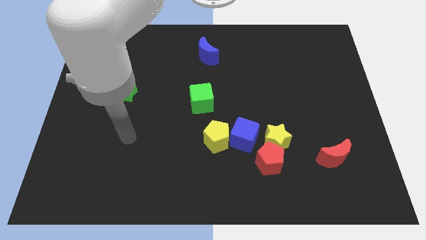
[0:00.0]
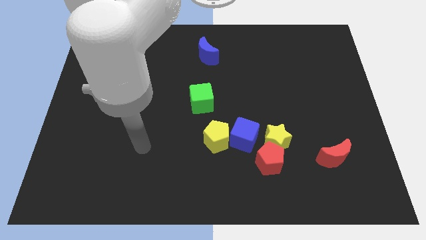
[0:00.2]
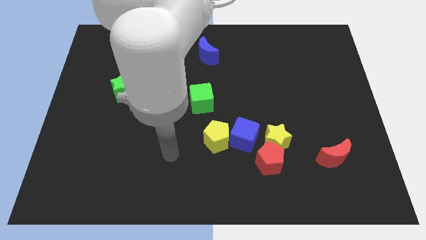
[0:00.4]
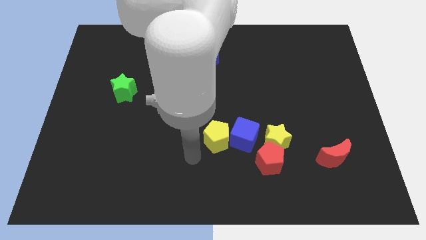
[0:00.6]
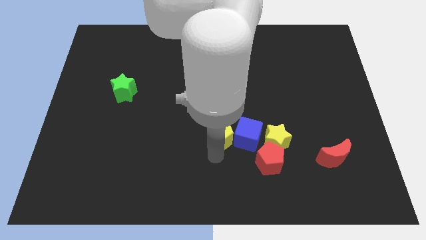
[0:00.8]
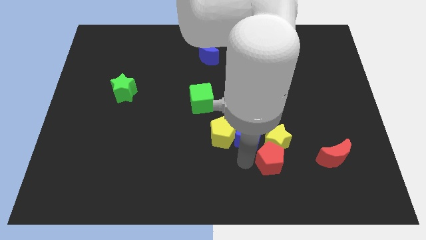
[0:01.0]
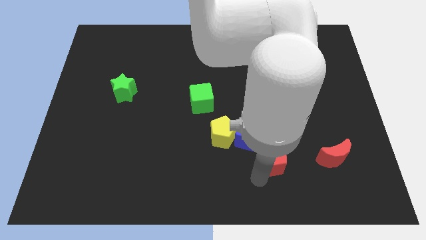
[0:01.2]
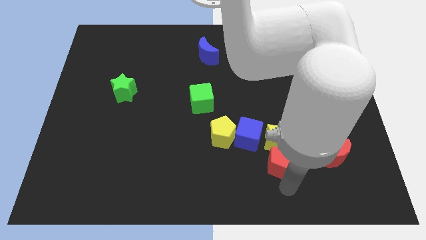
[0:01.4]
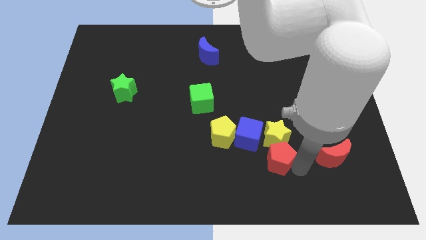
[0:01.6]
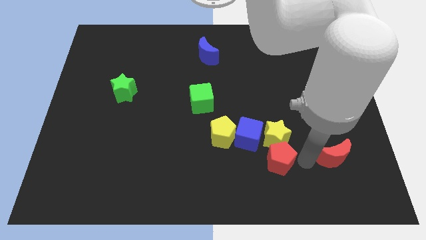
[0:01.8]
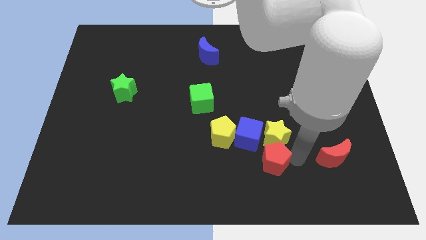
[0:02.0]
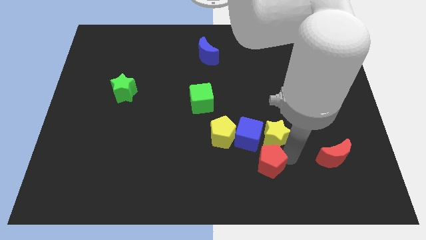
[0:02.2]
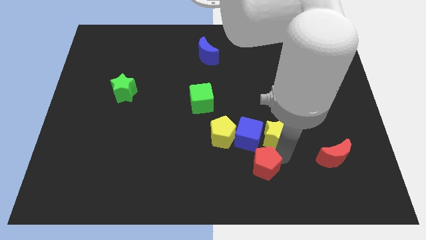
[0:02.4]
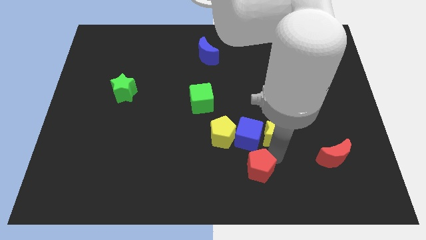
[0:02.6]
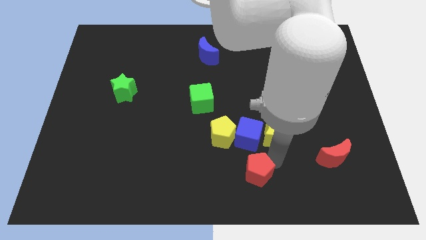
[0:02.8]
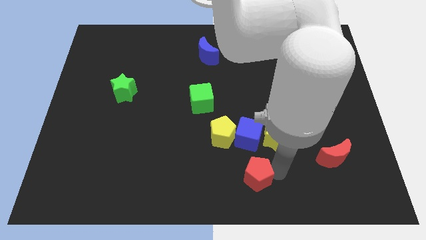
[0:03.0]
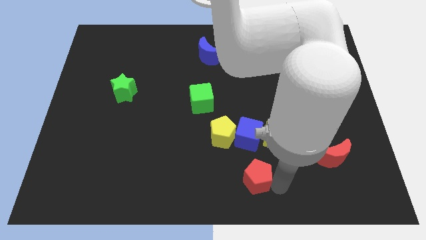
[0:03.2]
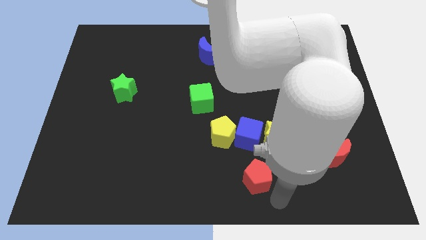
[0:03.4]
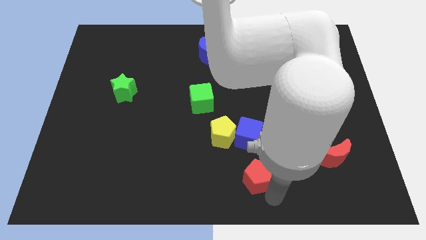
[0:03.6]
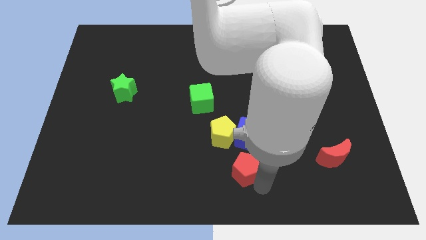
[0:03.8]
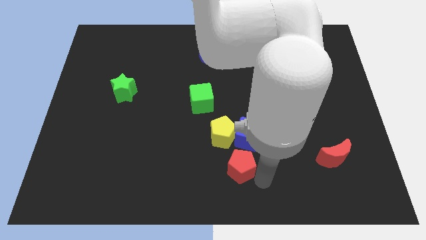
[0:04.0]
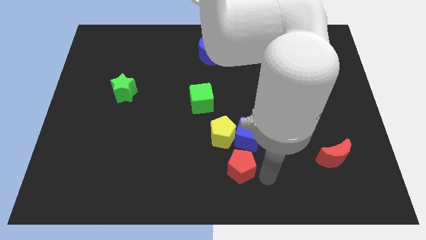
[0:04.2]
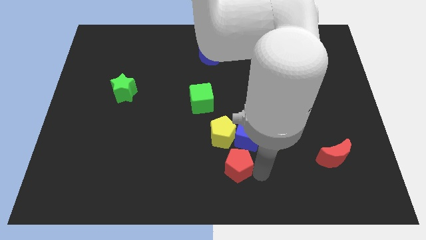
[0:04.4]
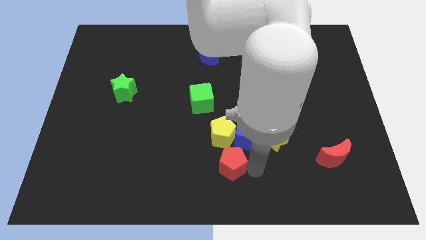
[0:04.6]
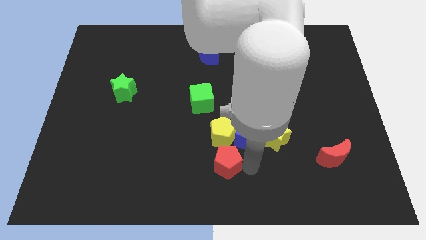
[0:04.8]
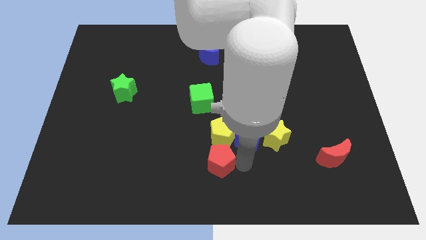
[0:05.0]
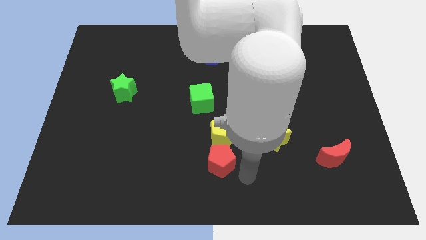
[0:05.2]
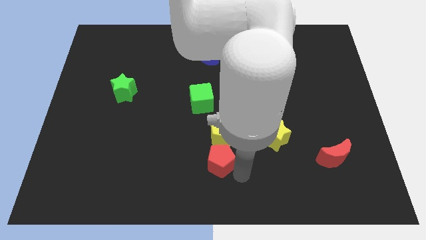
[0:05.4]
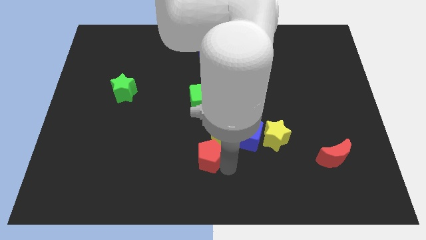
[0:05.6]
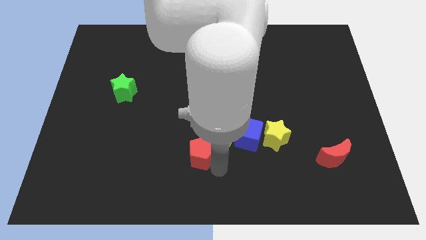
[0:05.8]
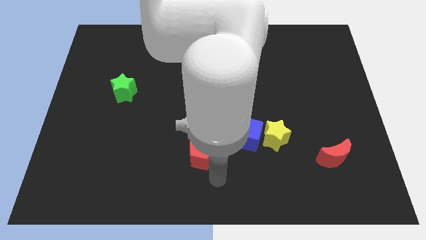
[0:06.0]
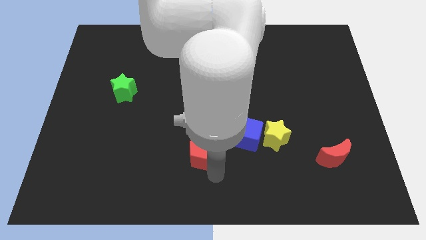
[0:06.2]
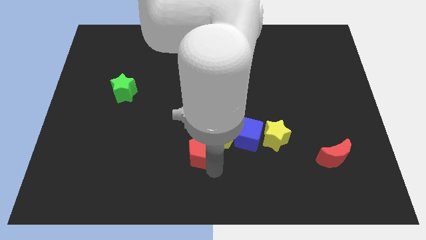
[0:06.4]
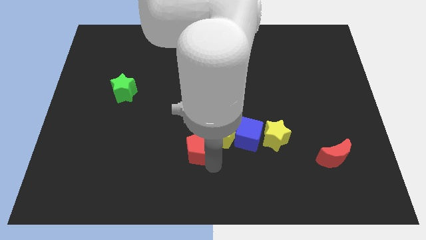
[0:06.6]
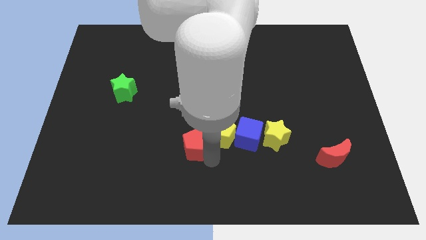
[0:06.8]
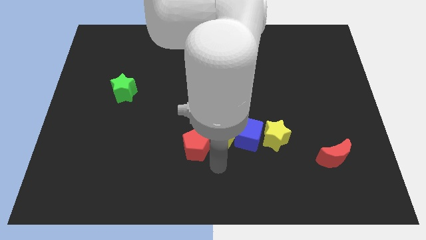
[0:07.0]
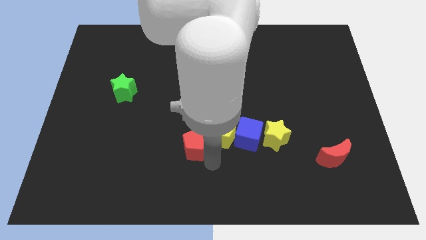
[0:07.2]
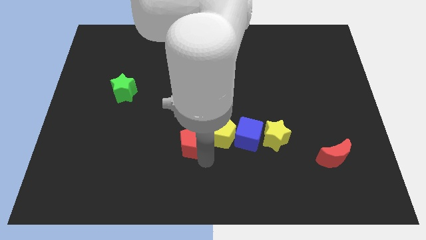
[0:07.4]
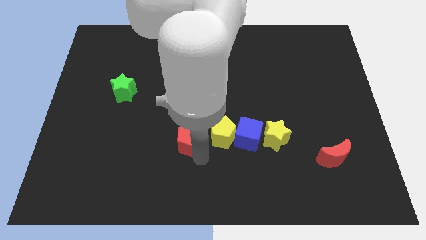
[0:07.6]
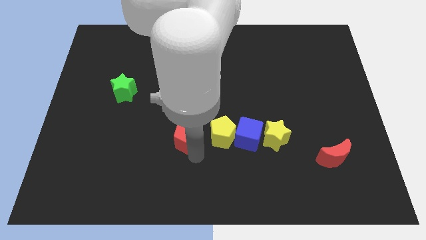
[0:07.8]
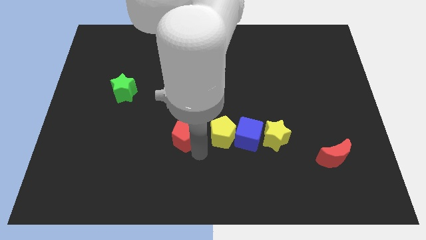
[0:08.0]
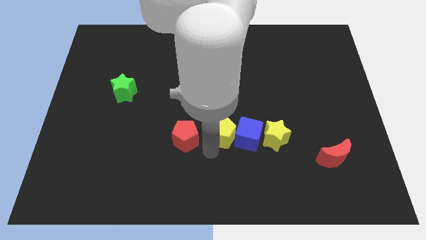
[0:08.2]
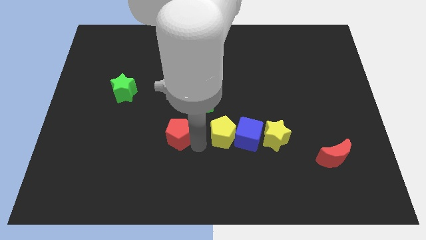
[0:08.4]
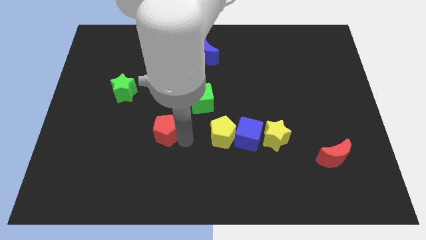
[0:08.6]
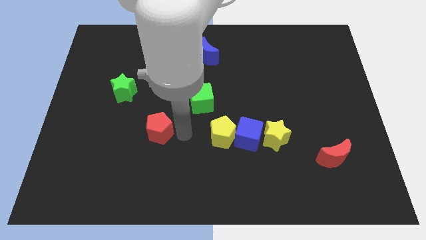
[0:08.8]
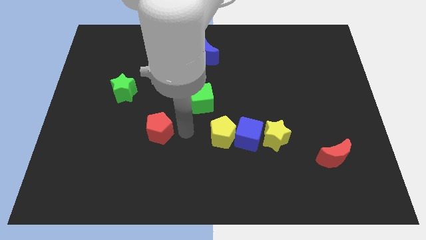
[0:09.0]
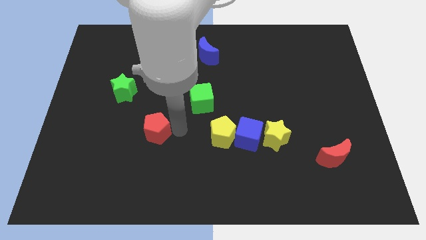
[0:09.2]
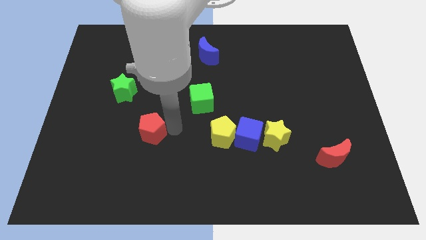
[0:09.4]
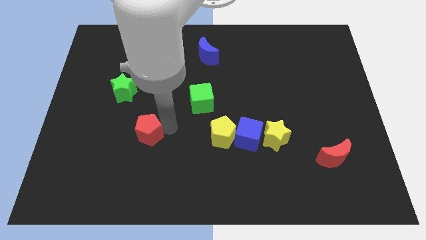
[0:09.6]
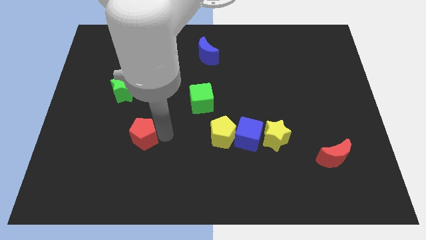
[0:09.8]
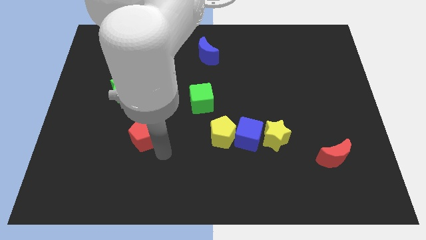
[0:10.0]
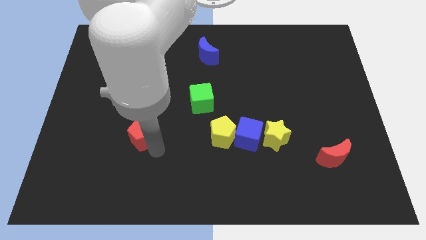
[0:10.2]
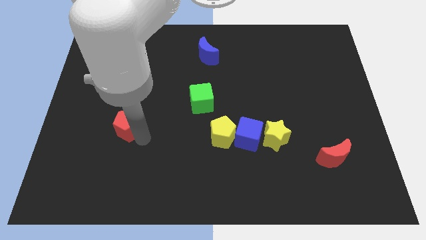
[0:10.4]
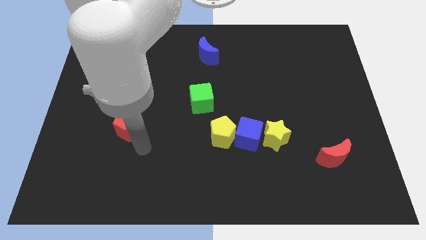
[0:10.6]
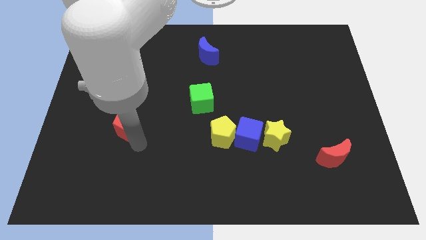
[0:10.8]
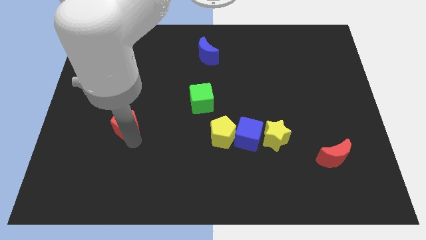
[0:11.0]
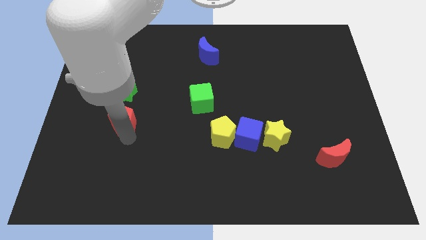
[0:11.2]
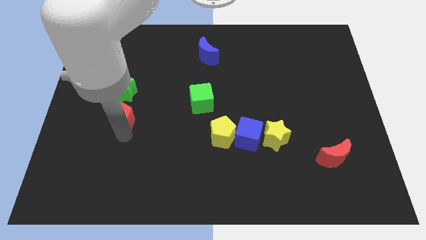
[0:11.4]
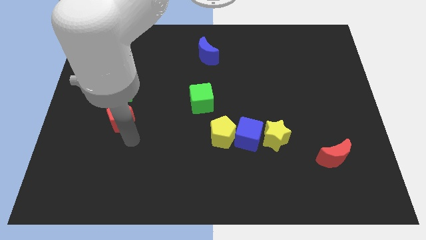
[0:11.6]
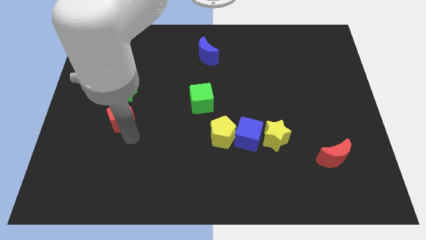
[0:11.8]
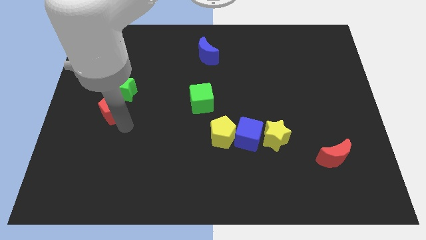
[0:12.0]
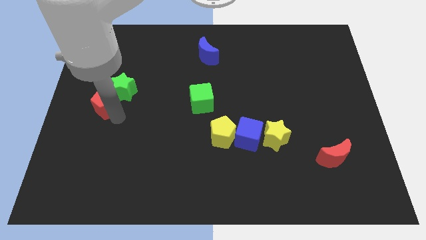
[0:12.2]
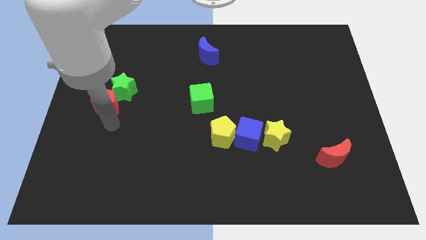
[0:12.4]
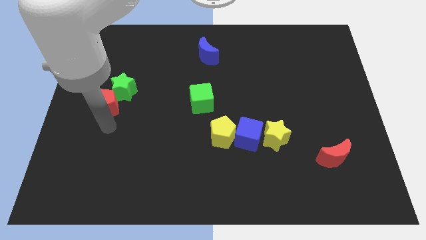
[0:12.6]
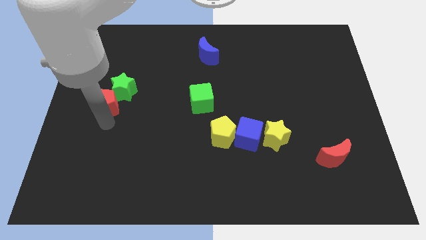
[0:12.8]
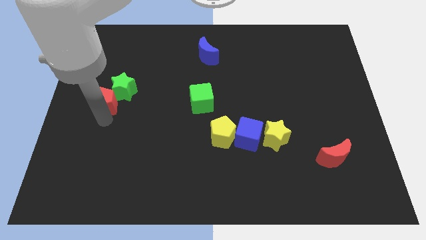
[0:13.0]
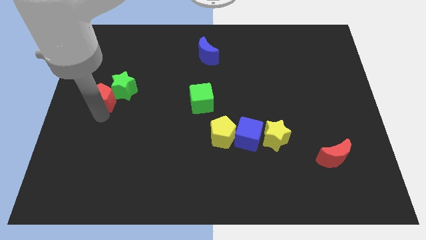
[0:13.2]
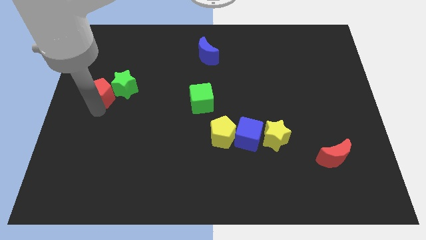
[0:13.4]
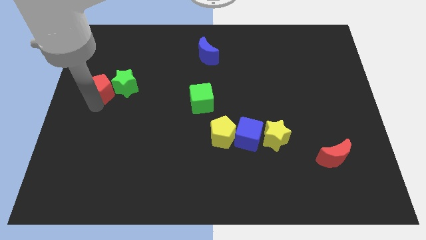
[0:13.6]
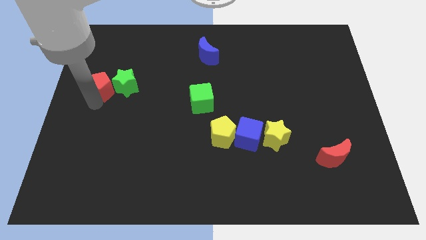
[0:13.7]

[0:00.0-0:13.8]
slide the red pentagon diagonally up and to the left of the green star
